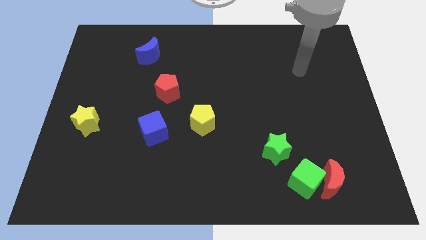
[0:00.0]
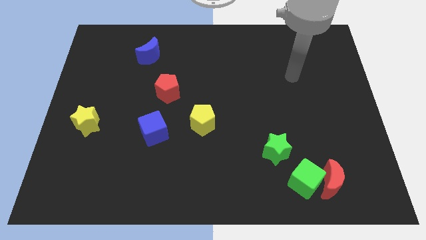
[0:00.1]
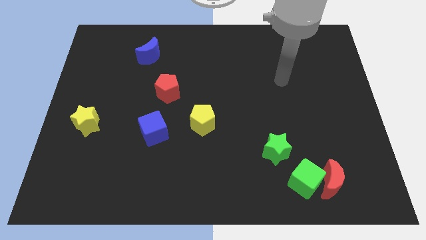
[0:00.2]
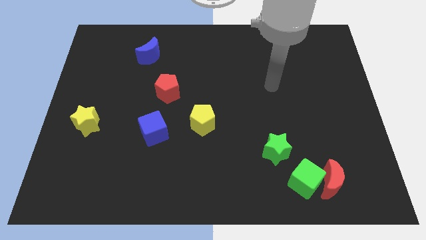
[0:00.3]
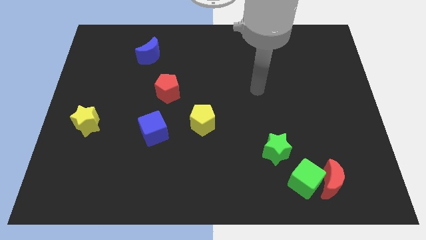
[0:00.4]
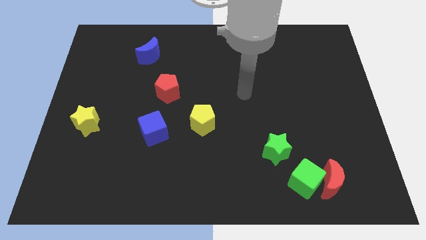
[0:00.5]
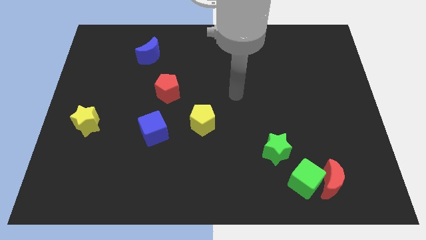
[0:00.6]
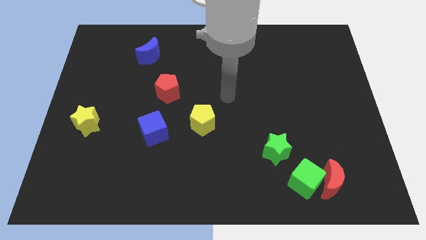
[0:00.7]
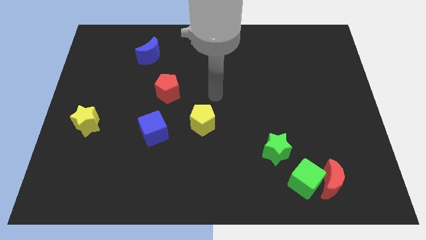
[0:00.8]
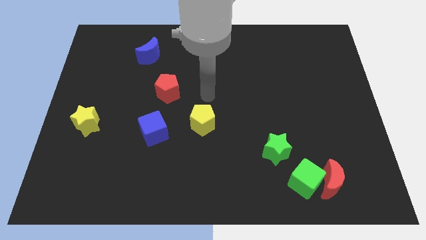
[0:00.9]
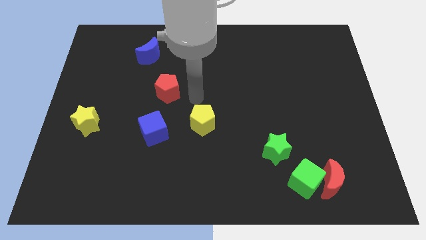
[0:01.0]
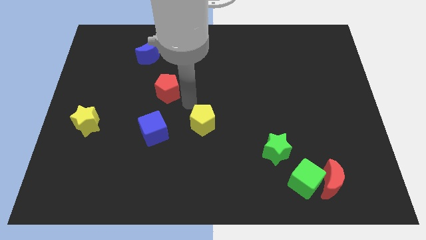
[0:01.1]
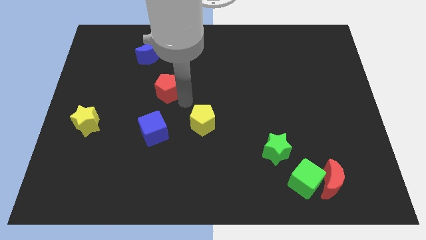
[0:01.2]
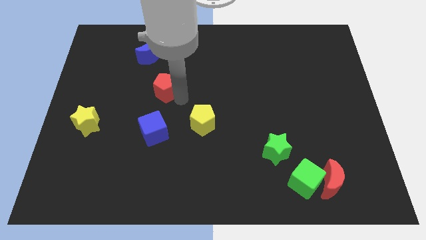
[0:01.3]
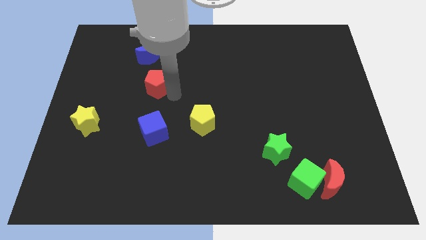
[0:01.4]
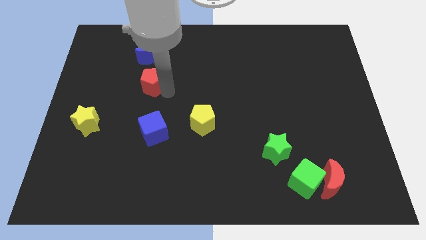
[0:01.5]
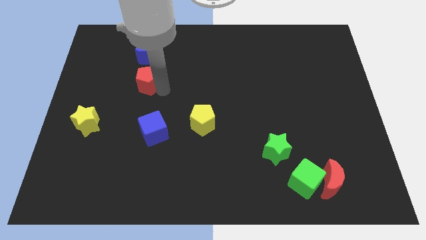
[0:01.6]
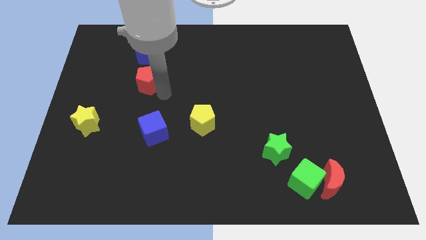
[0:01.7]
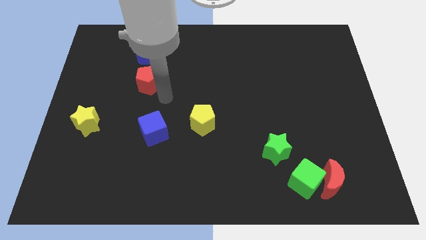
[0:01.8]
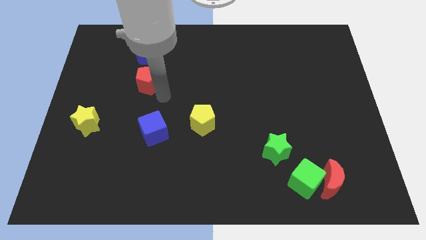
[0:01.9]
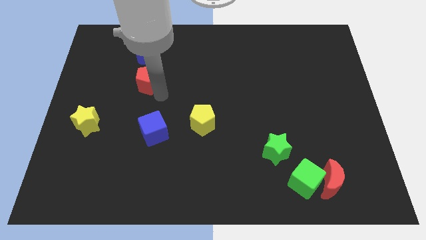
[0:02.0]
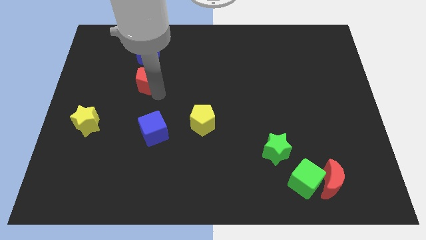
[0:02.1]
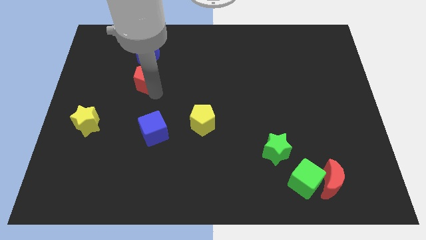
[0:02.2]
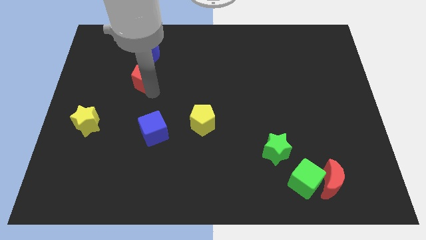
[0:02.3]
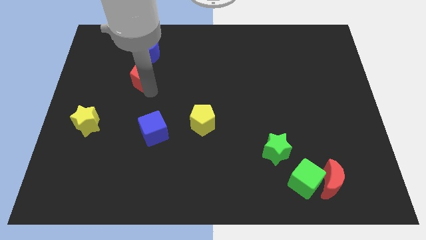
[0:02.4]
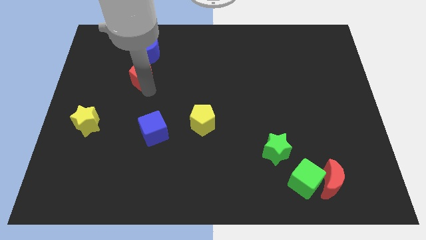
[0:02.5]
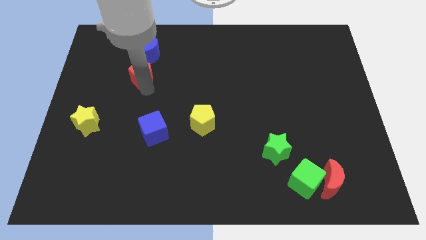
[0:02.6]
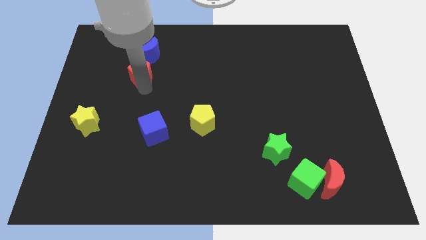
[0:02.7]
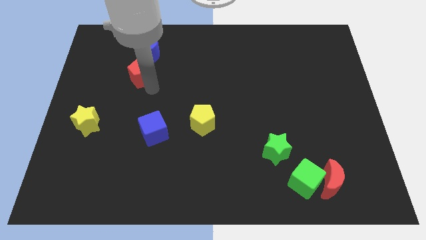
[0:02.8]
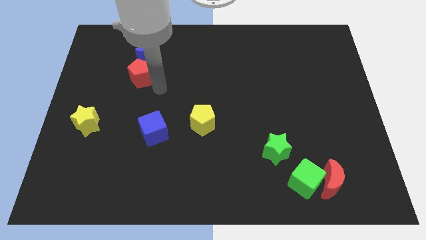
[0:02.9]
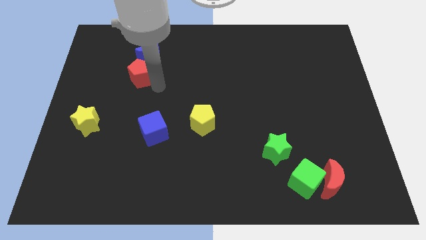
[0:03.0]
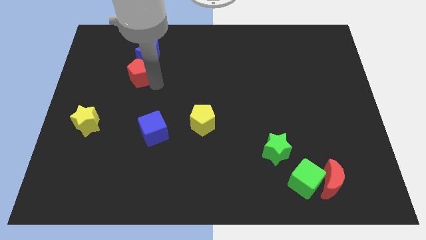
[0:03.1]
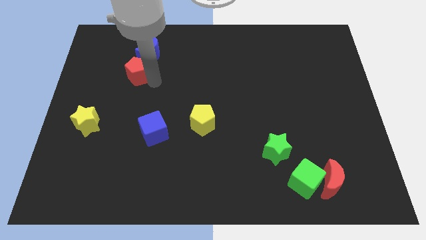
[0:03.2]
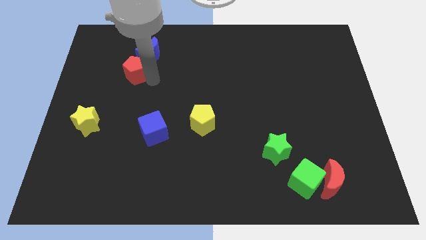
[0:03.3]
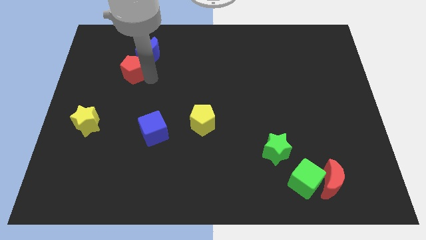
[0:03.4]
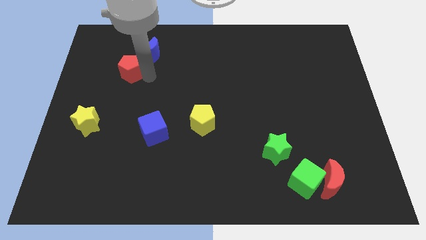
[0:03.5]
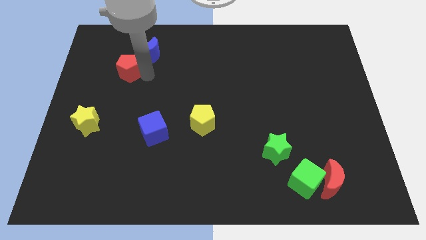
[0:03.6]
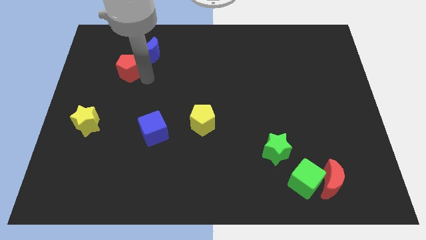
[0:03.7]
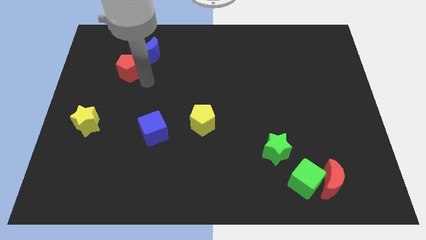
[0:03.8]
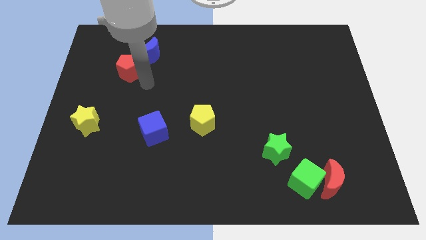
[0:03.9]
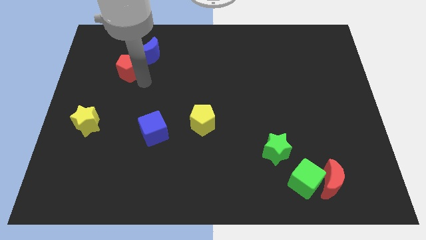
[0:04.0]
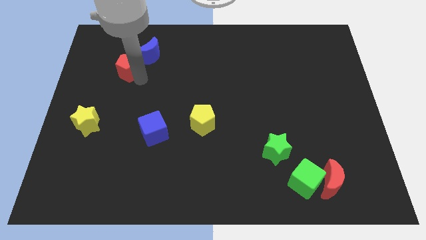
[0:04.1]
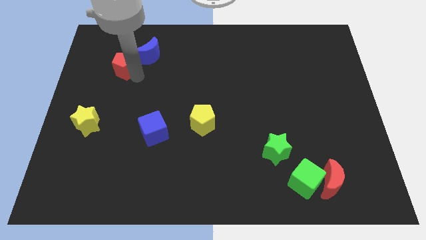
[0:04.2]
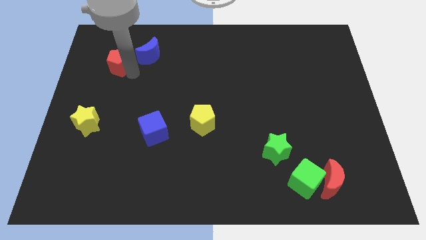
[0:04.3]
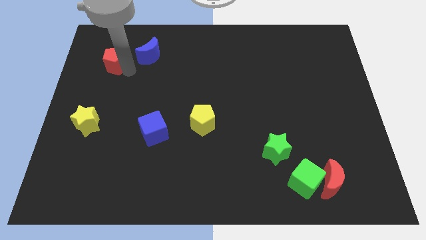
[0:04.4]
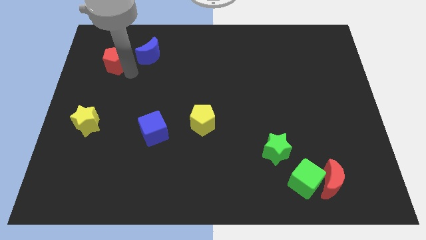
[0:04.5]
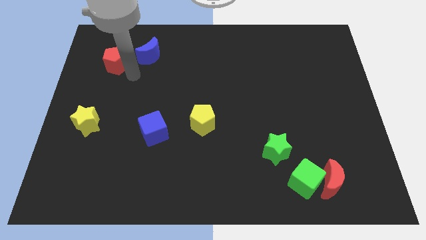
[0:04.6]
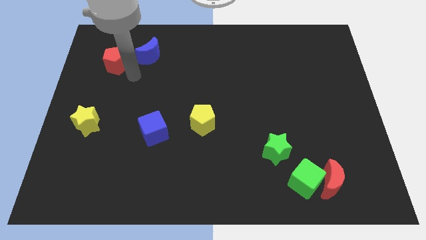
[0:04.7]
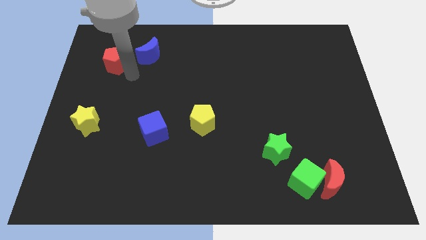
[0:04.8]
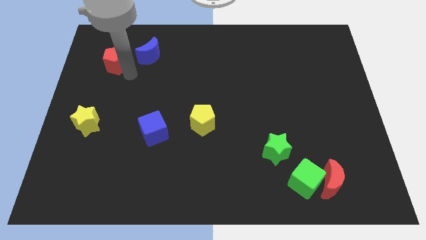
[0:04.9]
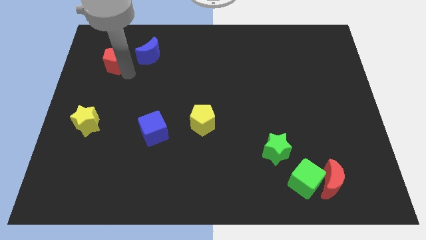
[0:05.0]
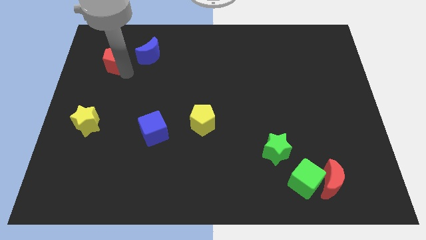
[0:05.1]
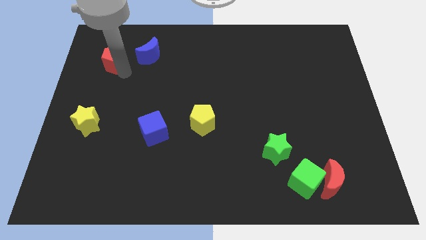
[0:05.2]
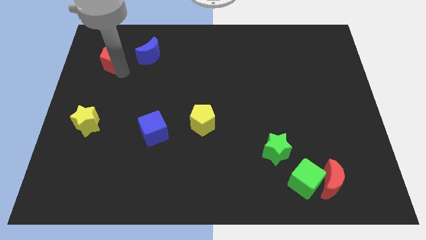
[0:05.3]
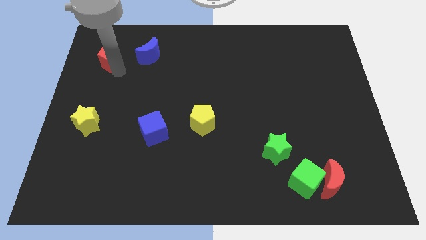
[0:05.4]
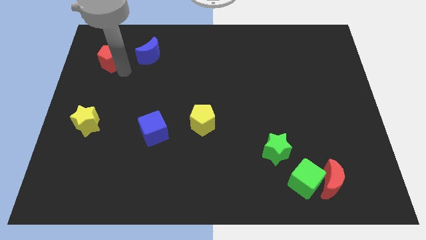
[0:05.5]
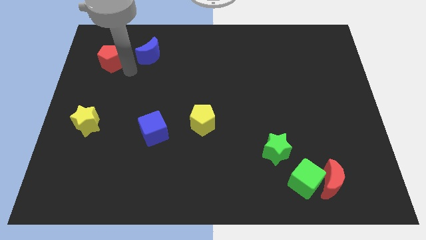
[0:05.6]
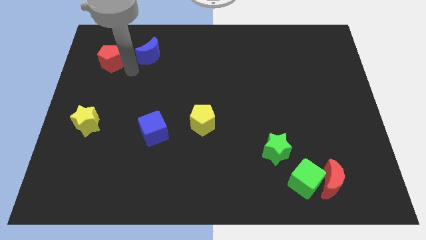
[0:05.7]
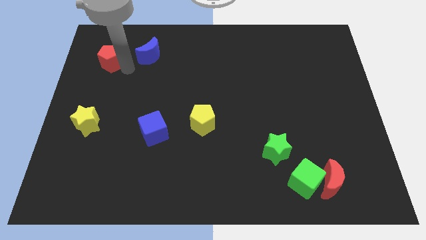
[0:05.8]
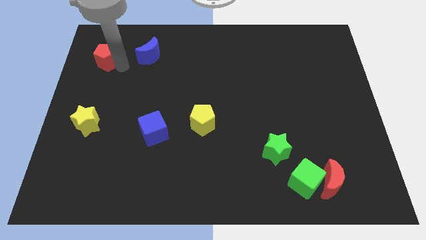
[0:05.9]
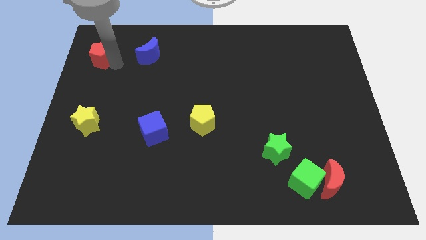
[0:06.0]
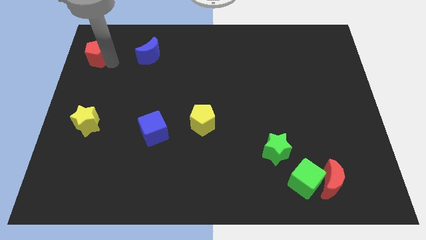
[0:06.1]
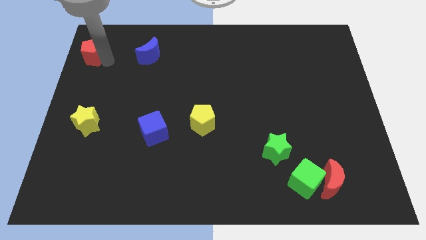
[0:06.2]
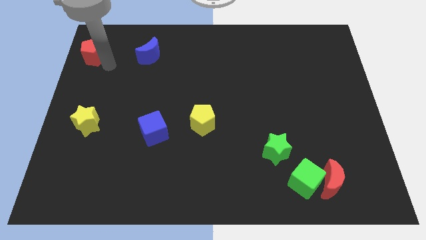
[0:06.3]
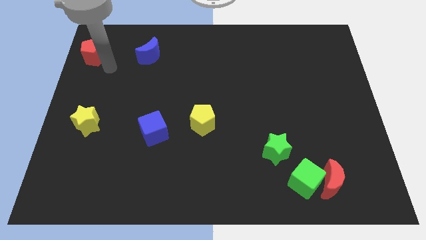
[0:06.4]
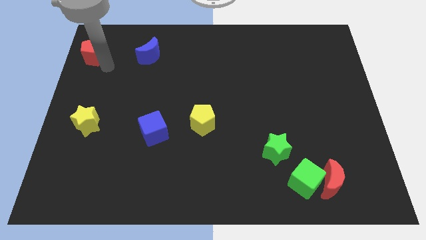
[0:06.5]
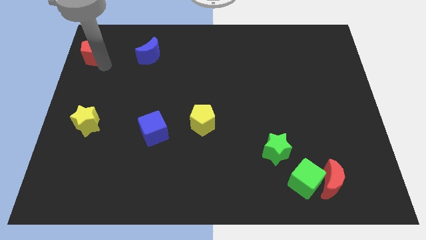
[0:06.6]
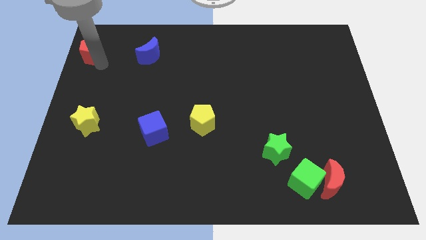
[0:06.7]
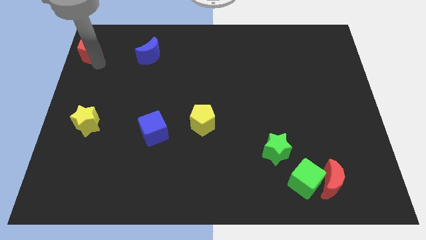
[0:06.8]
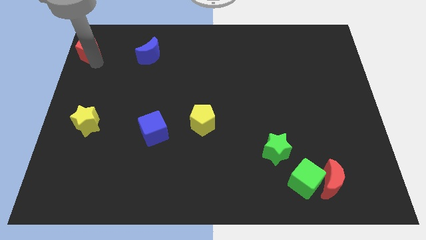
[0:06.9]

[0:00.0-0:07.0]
put the red pentagon to the upper left corner
